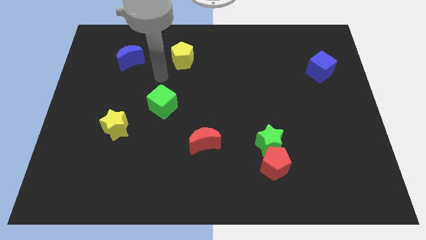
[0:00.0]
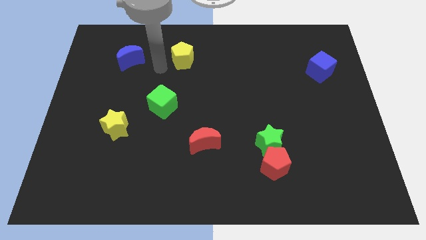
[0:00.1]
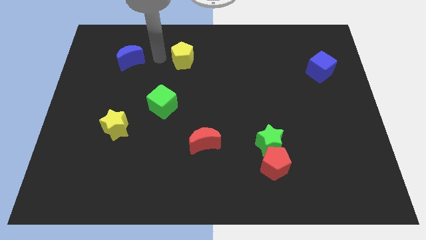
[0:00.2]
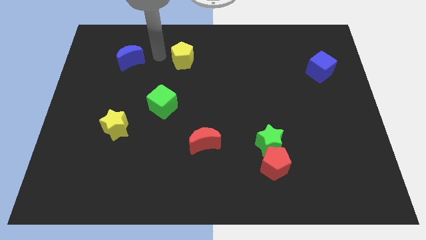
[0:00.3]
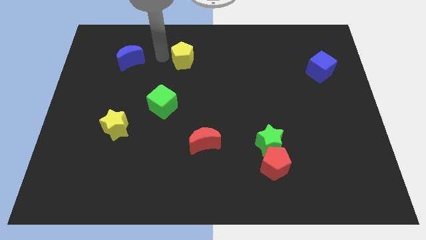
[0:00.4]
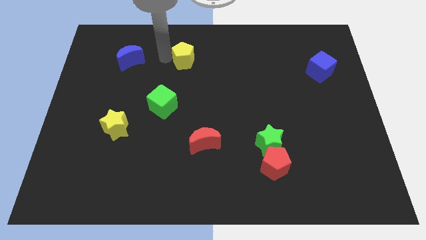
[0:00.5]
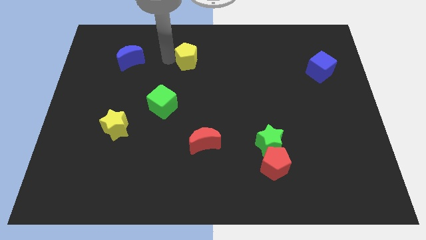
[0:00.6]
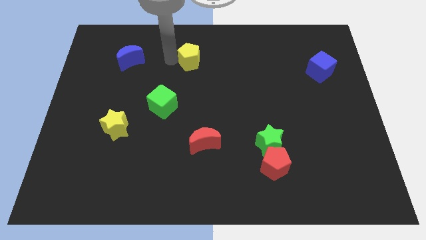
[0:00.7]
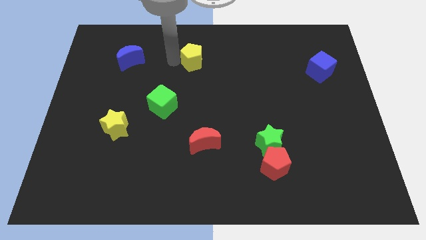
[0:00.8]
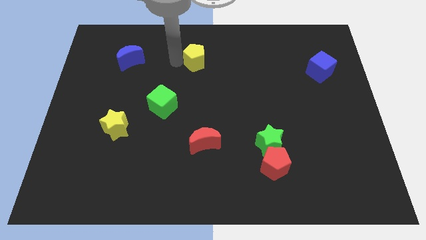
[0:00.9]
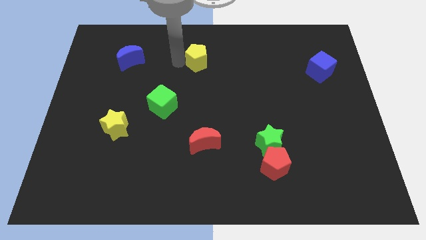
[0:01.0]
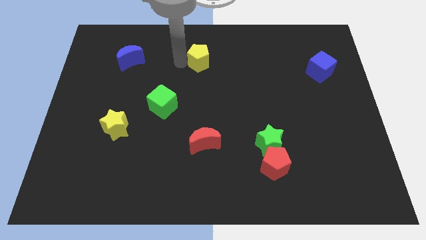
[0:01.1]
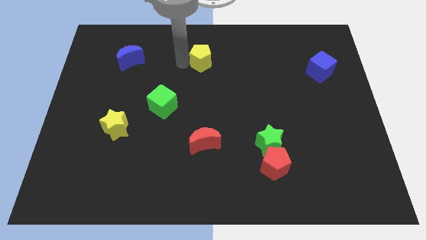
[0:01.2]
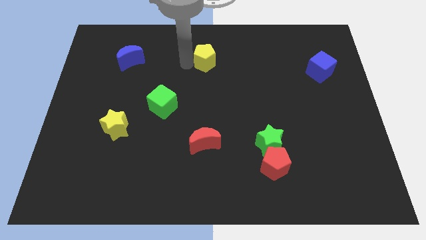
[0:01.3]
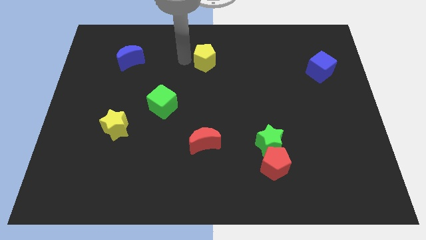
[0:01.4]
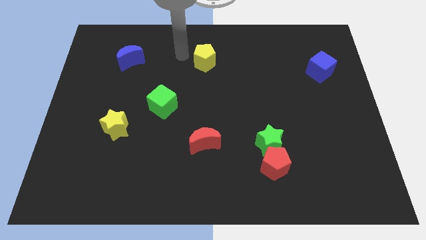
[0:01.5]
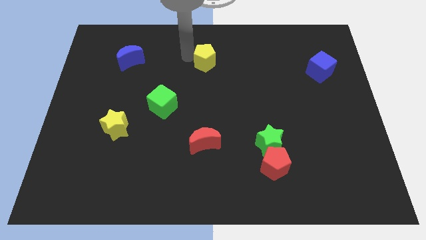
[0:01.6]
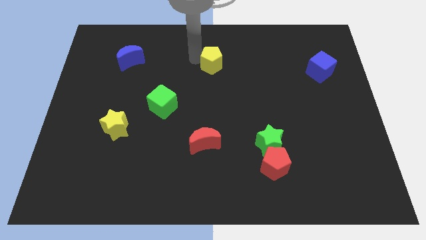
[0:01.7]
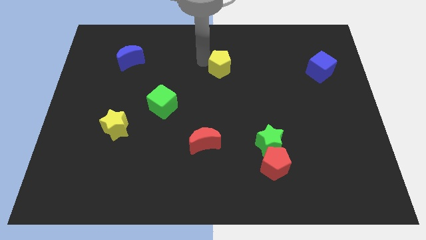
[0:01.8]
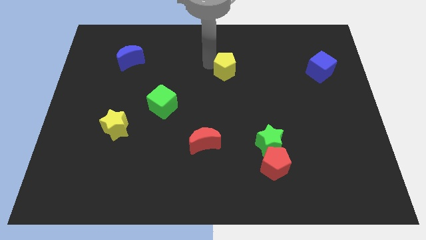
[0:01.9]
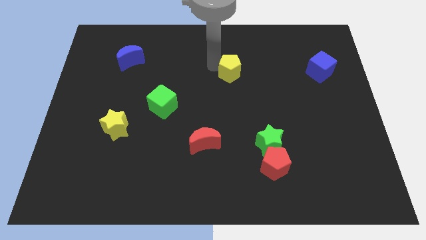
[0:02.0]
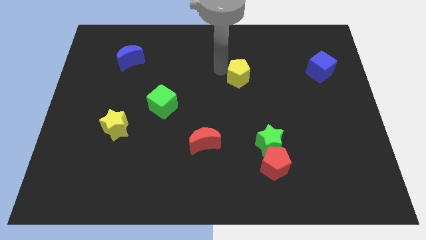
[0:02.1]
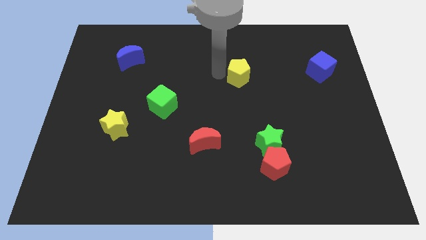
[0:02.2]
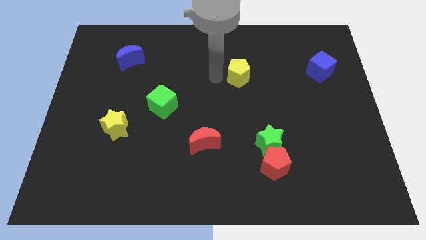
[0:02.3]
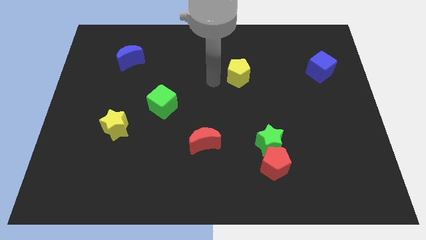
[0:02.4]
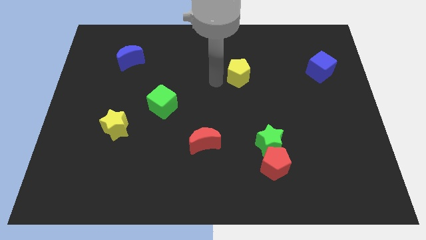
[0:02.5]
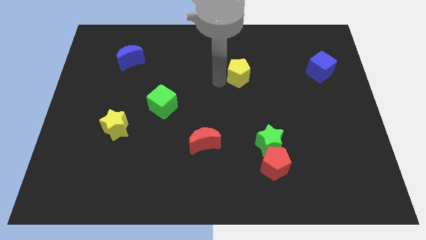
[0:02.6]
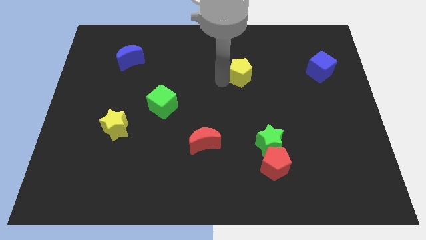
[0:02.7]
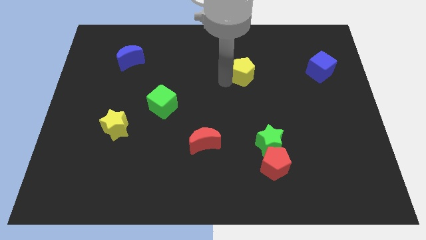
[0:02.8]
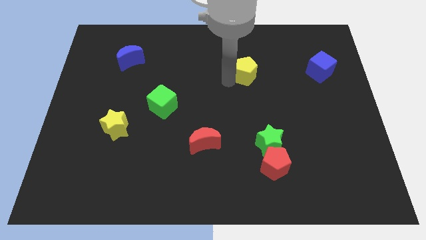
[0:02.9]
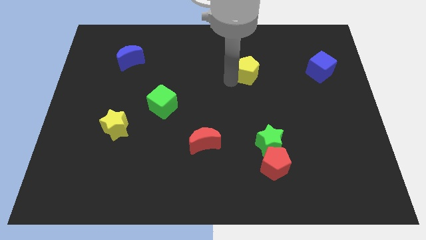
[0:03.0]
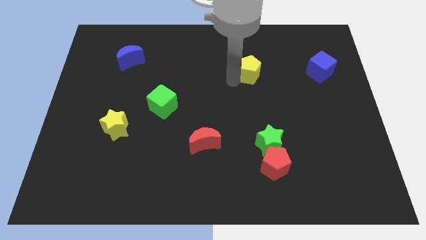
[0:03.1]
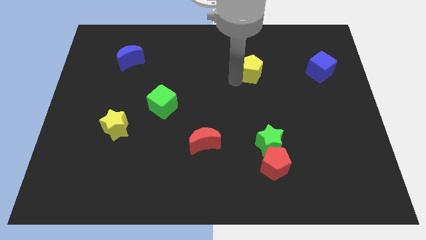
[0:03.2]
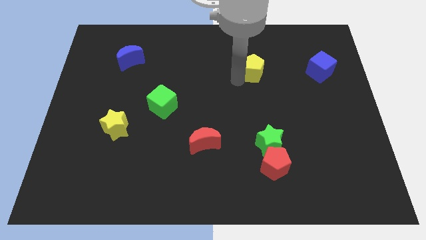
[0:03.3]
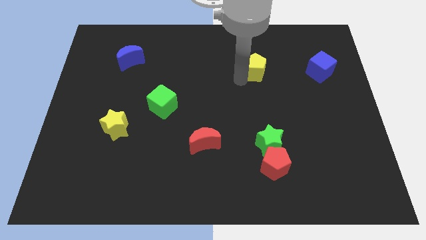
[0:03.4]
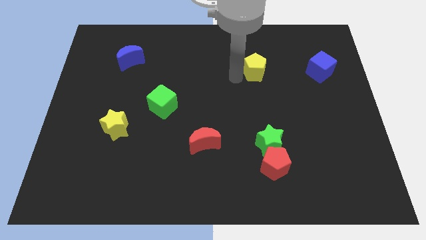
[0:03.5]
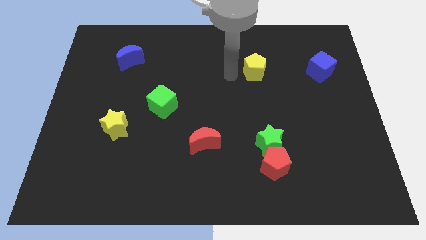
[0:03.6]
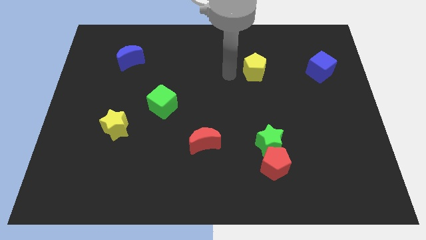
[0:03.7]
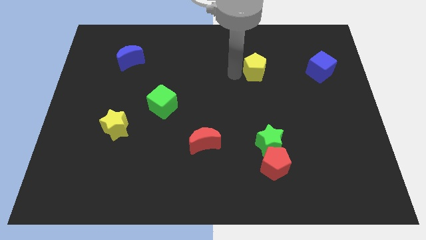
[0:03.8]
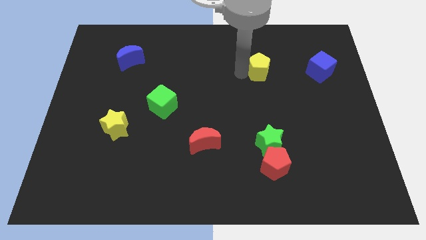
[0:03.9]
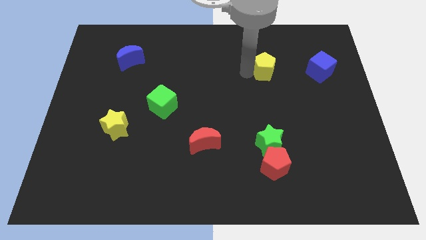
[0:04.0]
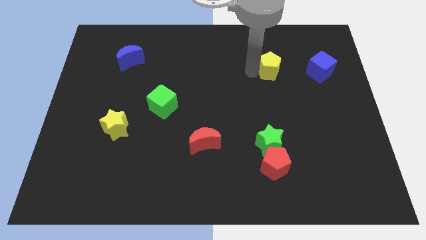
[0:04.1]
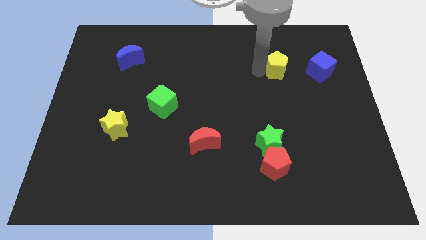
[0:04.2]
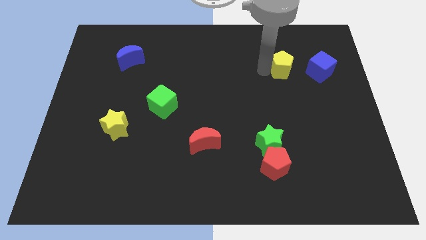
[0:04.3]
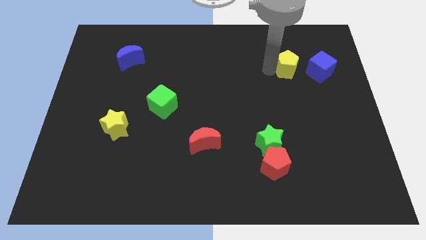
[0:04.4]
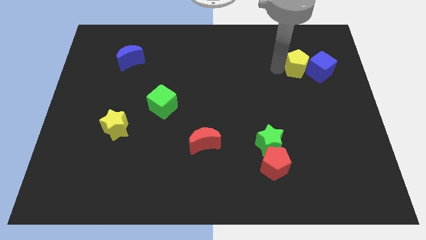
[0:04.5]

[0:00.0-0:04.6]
push the yellow pentagon to the blue cube

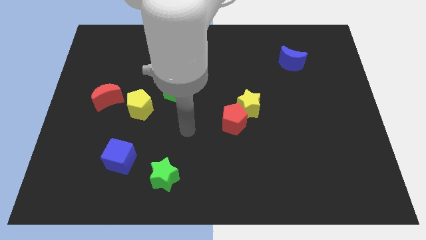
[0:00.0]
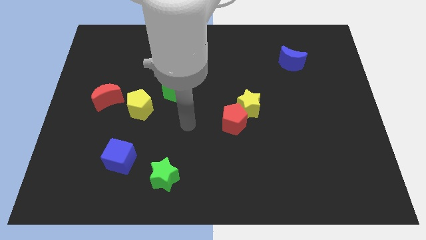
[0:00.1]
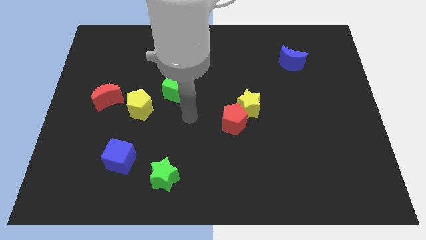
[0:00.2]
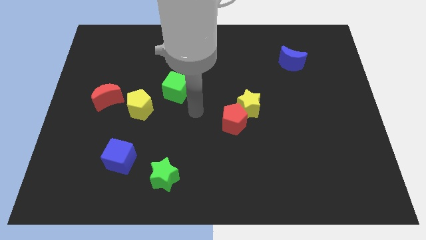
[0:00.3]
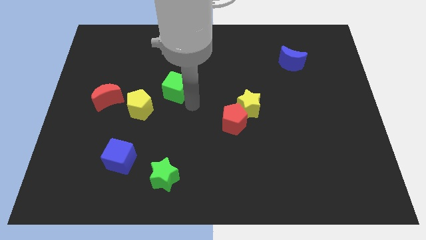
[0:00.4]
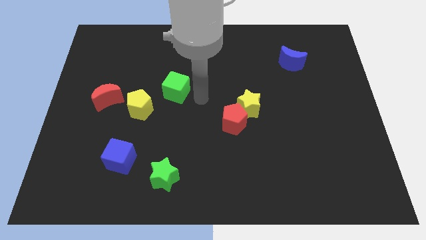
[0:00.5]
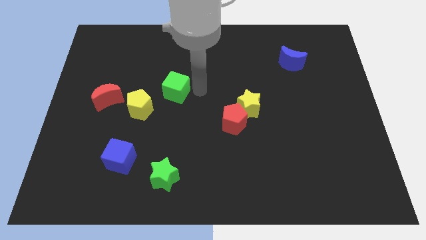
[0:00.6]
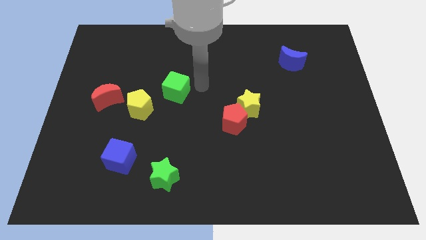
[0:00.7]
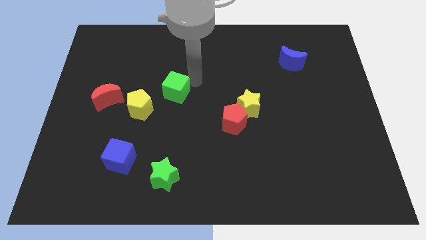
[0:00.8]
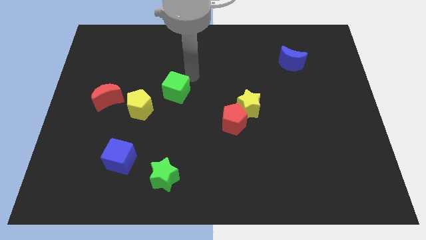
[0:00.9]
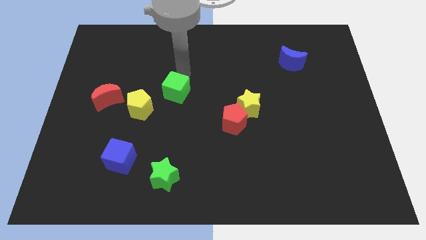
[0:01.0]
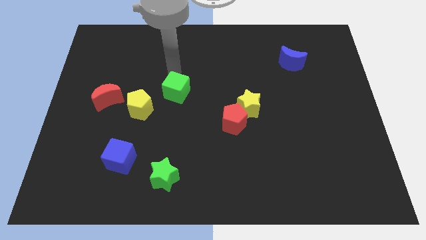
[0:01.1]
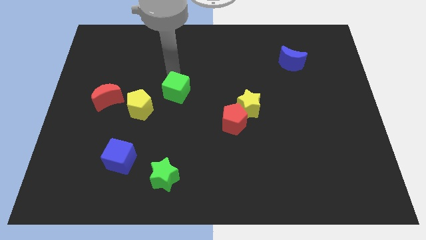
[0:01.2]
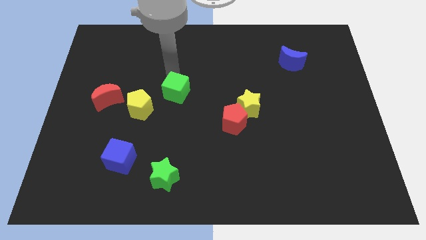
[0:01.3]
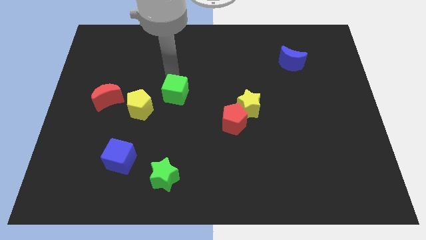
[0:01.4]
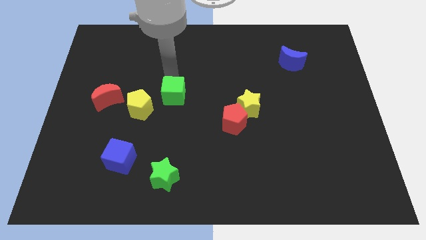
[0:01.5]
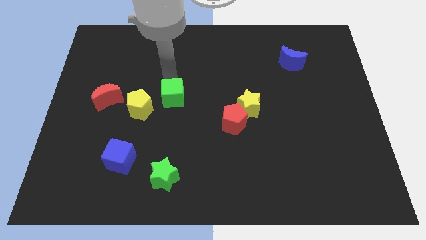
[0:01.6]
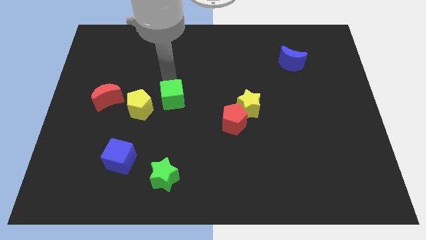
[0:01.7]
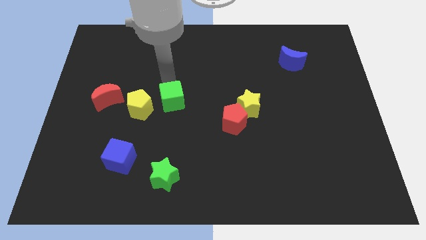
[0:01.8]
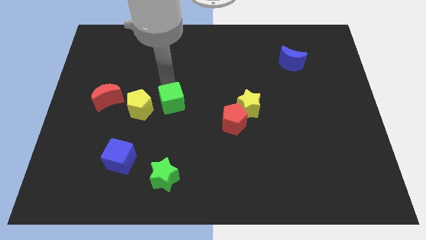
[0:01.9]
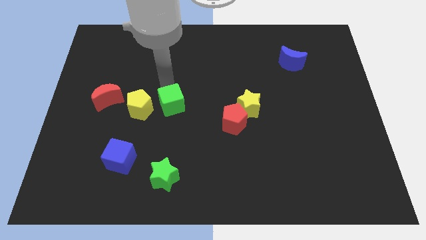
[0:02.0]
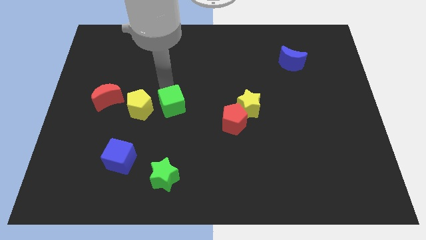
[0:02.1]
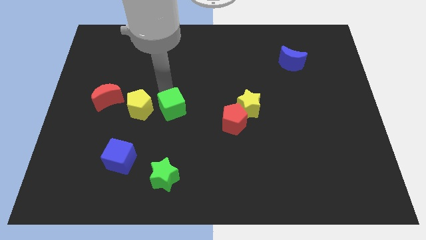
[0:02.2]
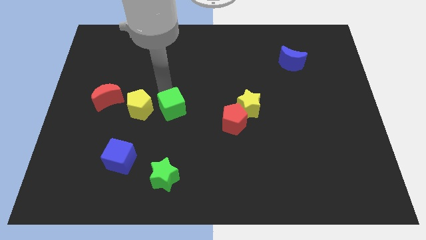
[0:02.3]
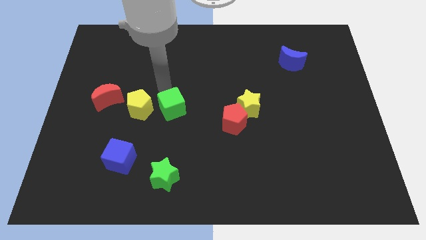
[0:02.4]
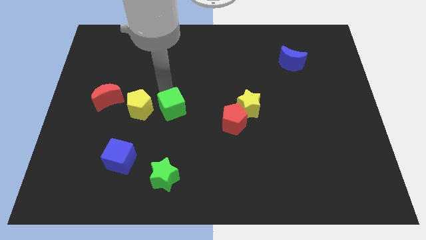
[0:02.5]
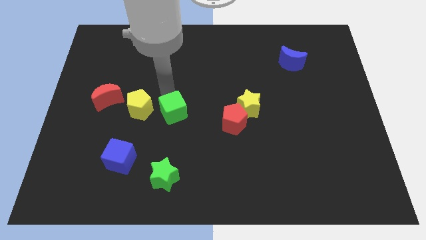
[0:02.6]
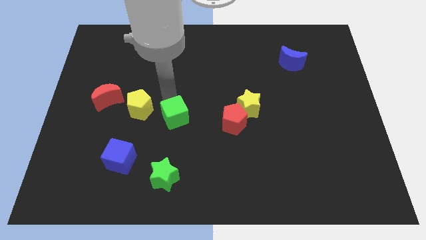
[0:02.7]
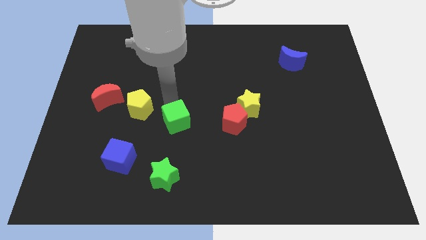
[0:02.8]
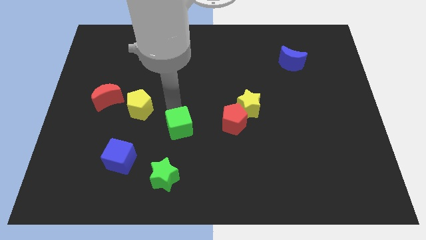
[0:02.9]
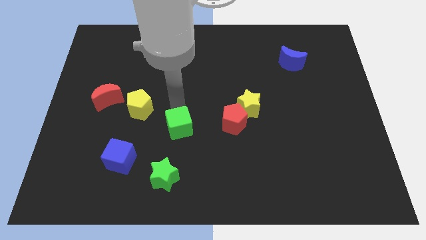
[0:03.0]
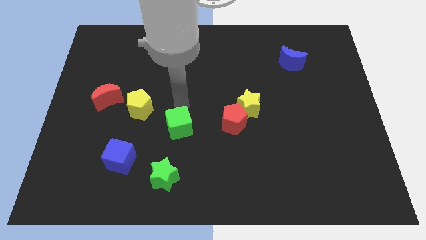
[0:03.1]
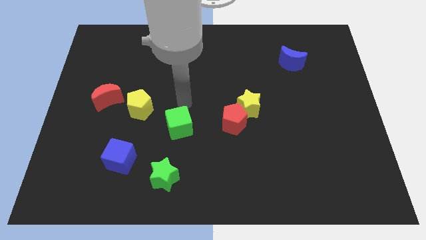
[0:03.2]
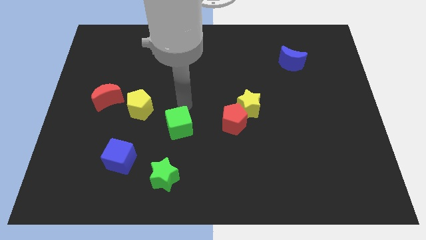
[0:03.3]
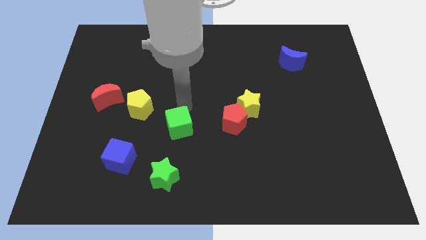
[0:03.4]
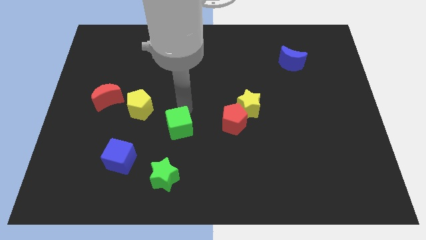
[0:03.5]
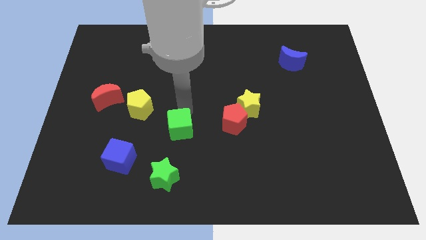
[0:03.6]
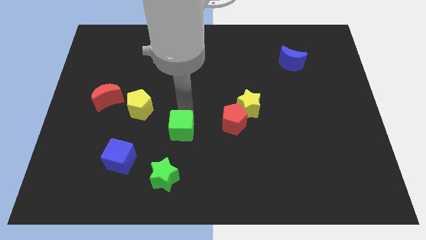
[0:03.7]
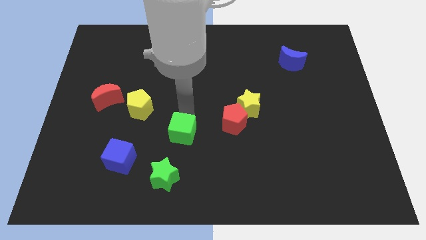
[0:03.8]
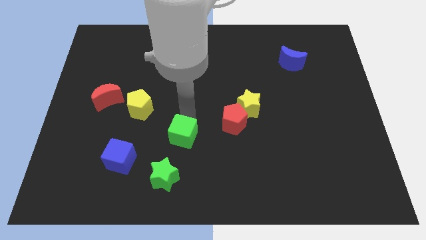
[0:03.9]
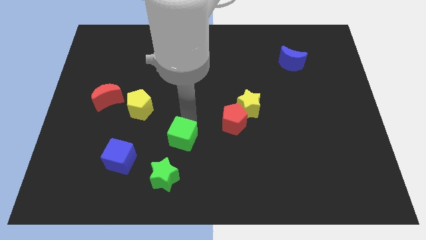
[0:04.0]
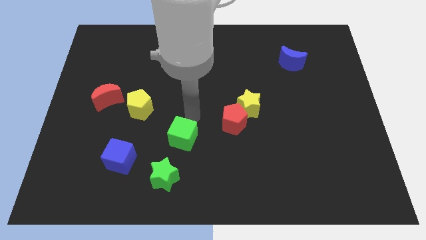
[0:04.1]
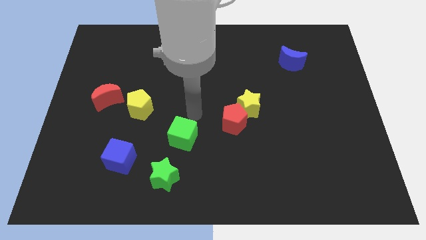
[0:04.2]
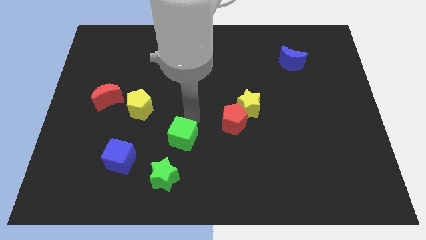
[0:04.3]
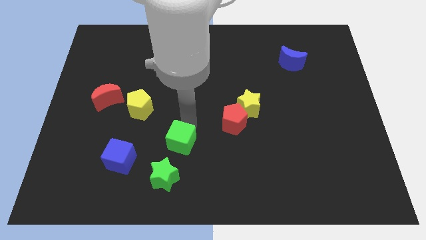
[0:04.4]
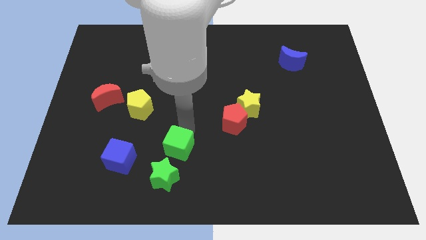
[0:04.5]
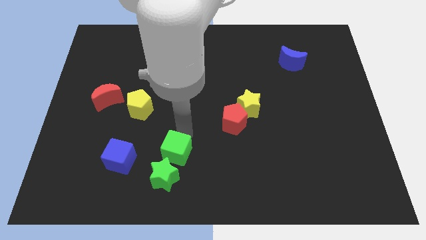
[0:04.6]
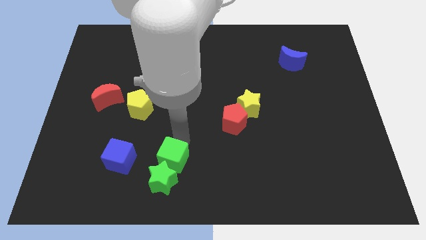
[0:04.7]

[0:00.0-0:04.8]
push the green cube to the green star
